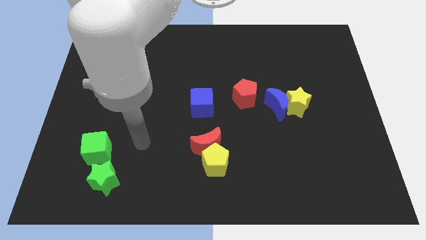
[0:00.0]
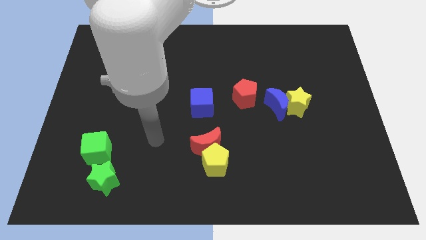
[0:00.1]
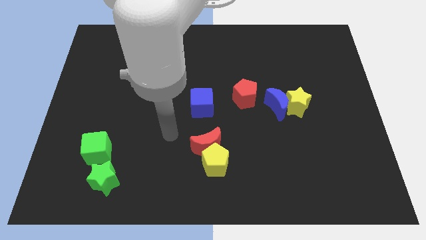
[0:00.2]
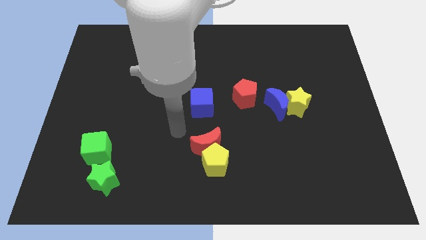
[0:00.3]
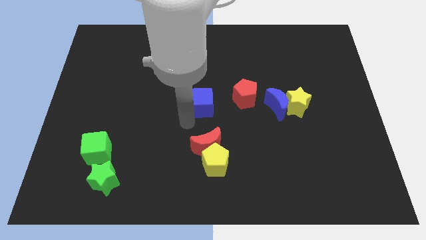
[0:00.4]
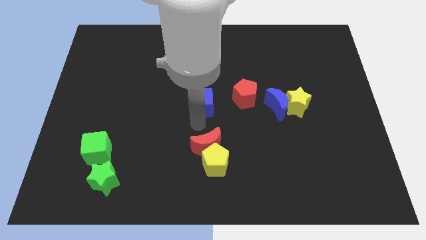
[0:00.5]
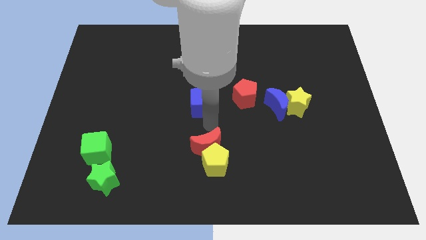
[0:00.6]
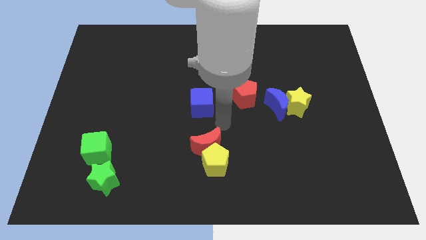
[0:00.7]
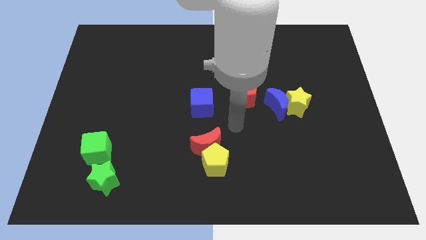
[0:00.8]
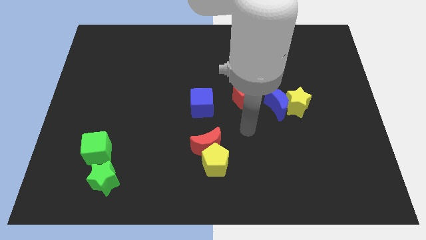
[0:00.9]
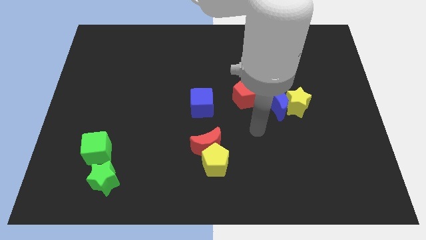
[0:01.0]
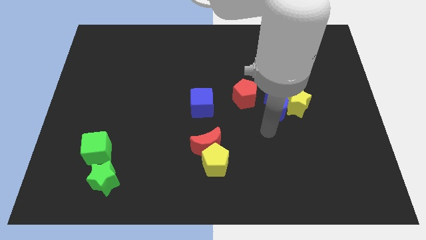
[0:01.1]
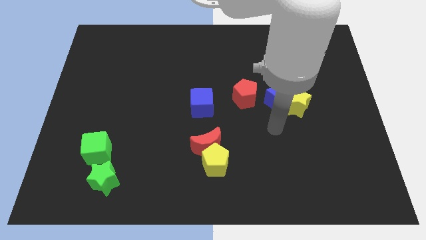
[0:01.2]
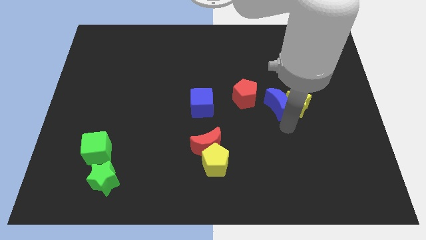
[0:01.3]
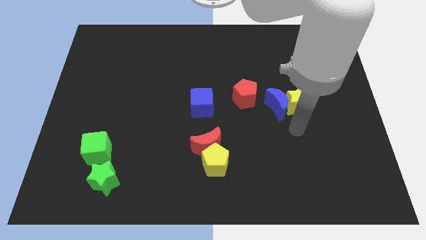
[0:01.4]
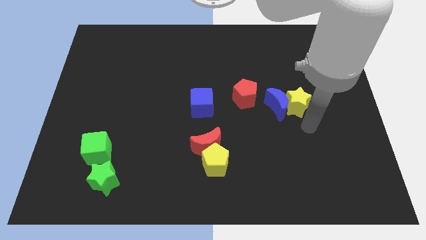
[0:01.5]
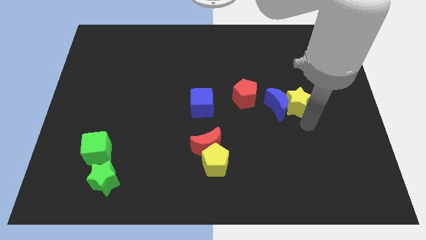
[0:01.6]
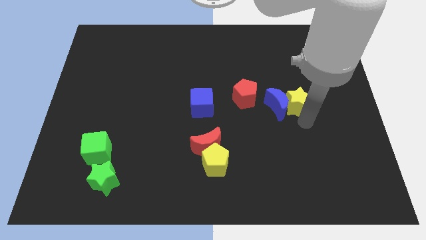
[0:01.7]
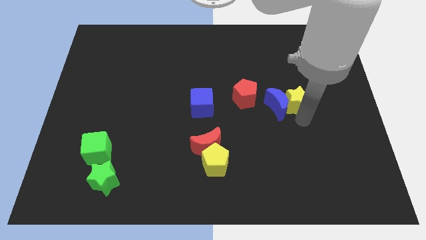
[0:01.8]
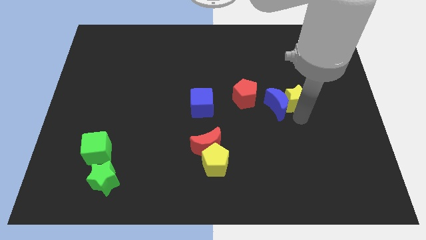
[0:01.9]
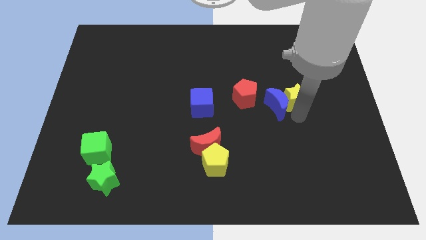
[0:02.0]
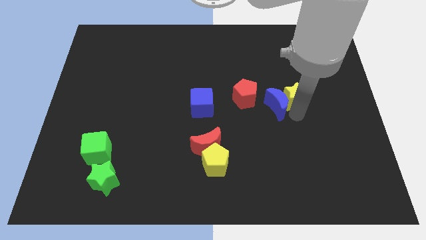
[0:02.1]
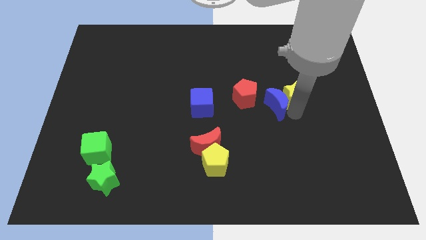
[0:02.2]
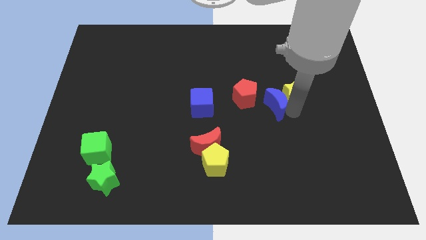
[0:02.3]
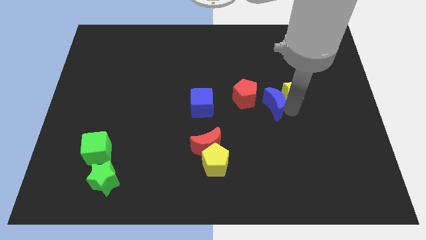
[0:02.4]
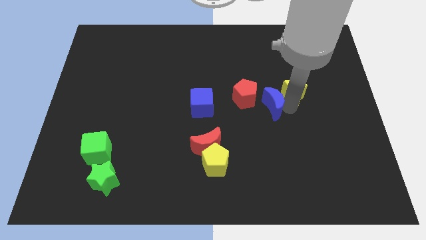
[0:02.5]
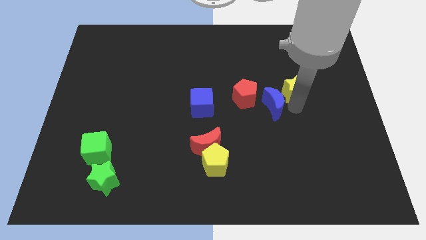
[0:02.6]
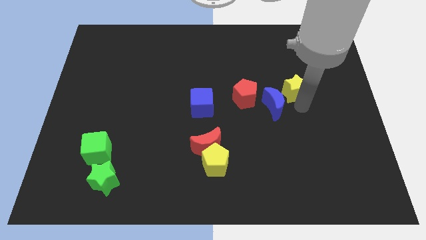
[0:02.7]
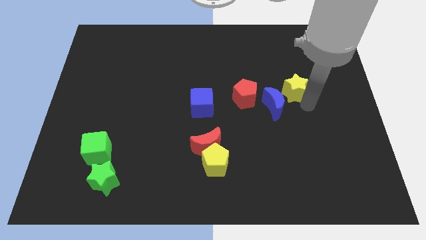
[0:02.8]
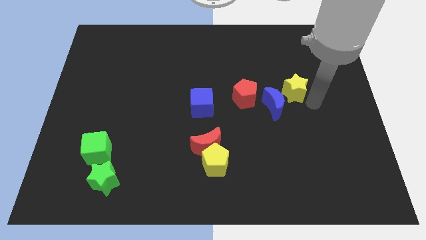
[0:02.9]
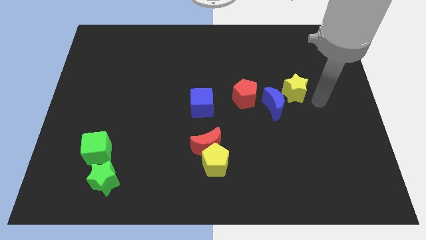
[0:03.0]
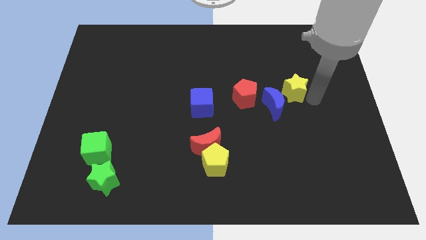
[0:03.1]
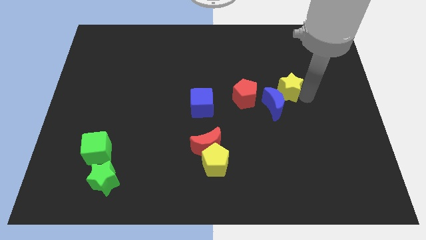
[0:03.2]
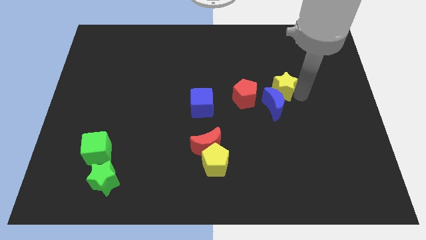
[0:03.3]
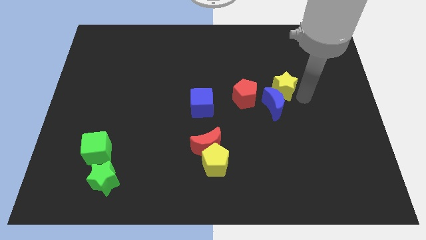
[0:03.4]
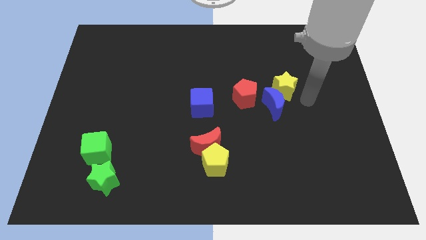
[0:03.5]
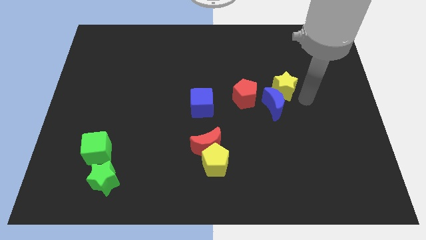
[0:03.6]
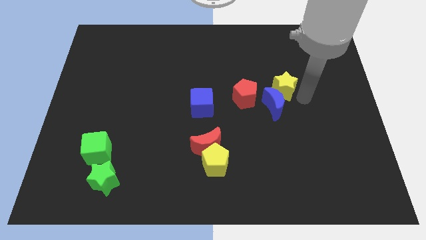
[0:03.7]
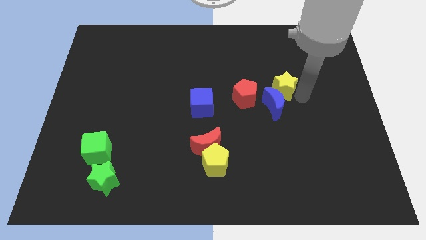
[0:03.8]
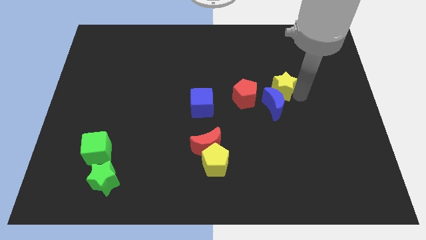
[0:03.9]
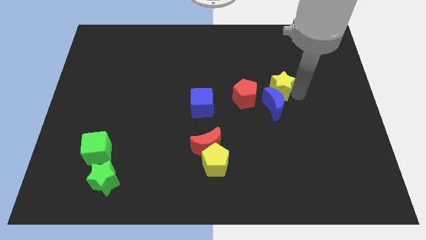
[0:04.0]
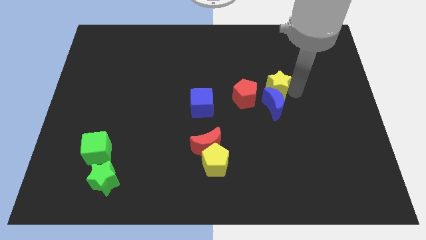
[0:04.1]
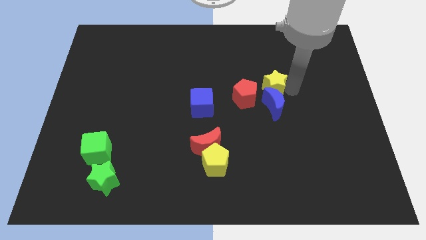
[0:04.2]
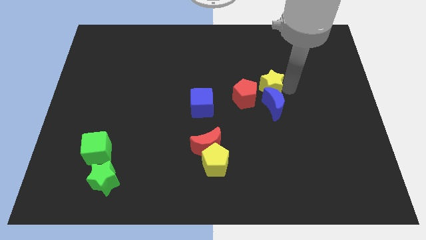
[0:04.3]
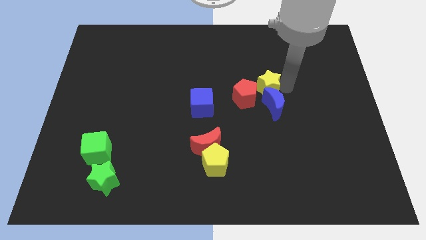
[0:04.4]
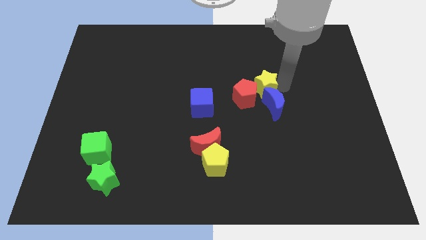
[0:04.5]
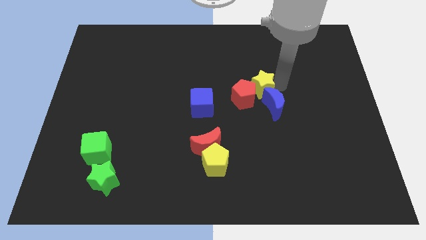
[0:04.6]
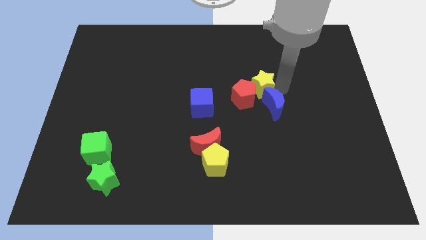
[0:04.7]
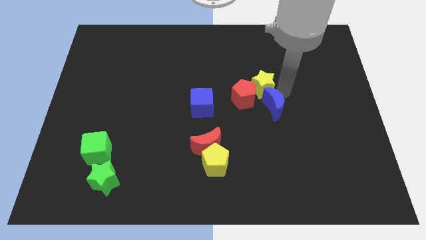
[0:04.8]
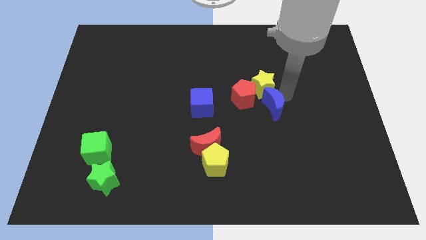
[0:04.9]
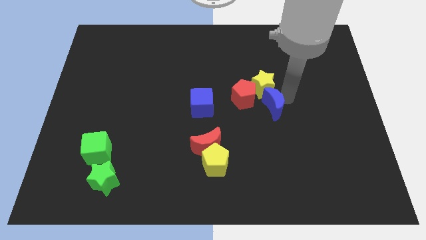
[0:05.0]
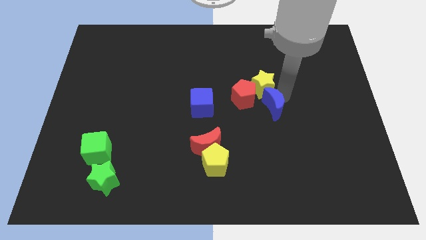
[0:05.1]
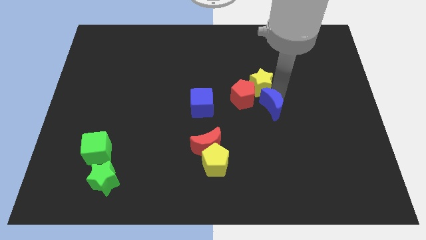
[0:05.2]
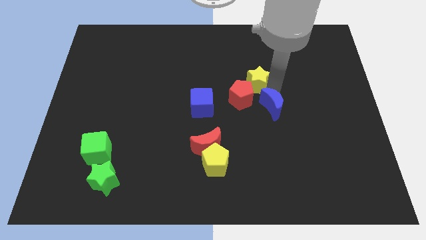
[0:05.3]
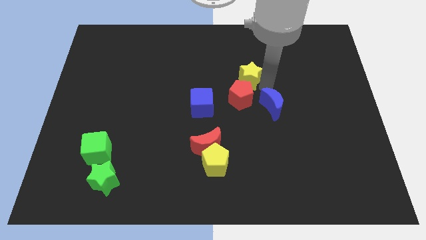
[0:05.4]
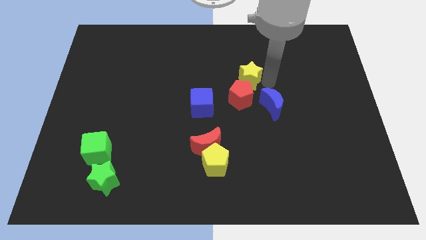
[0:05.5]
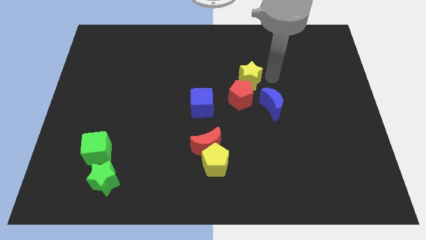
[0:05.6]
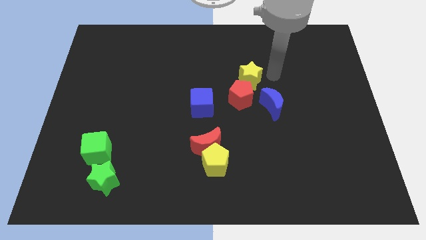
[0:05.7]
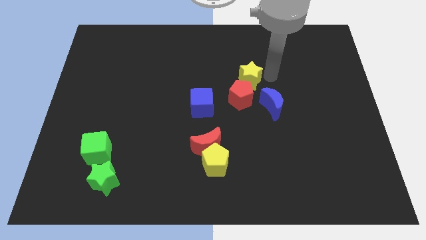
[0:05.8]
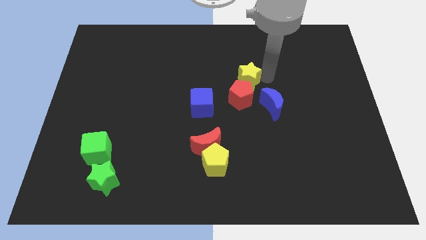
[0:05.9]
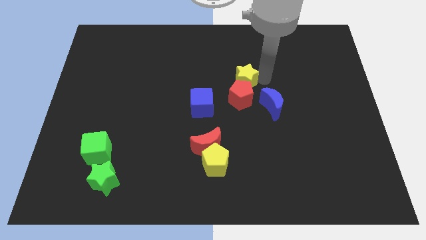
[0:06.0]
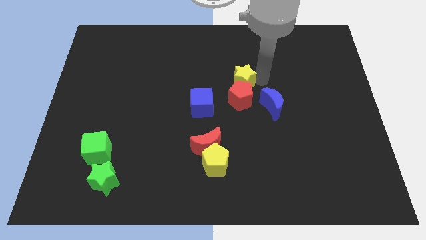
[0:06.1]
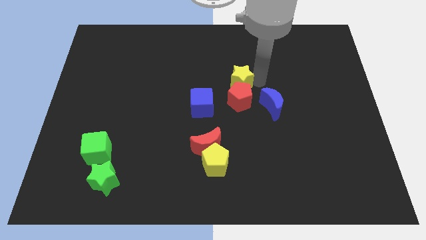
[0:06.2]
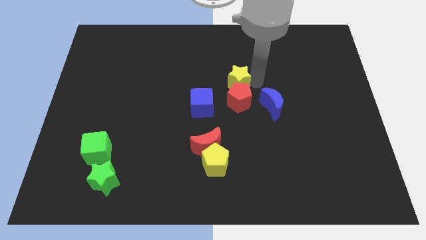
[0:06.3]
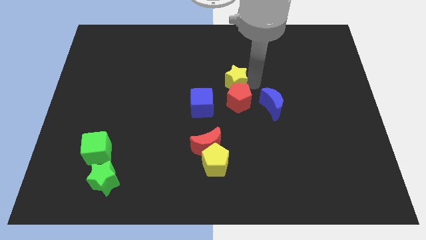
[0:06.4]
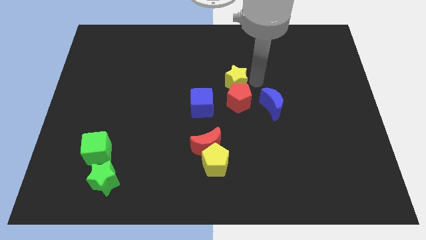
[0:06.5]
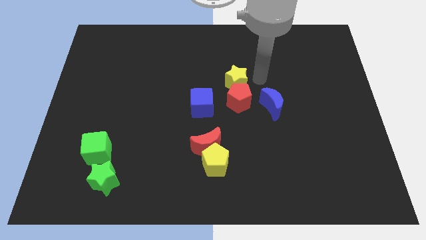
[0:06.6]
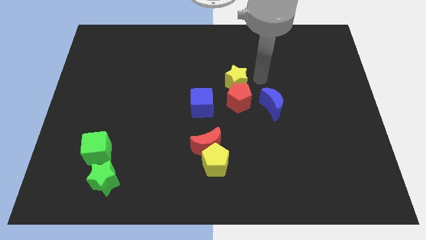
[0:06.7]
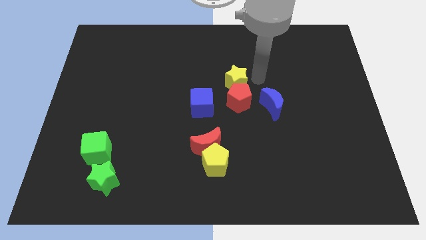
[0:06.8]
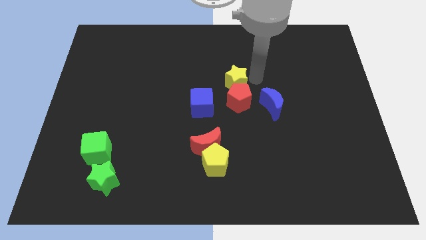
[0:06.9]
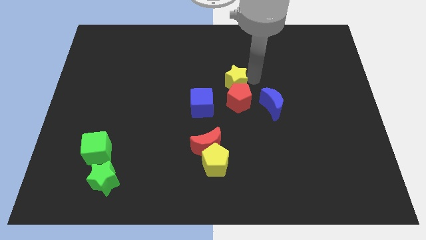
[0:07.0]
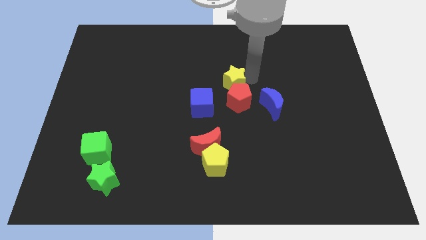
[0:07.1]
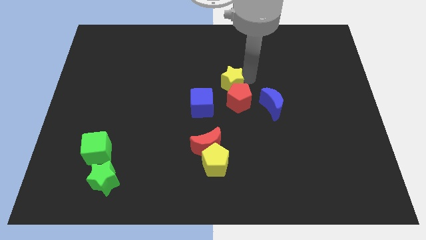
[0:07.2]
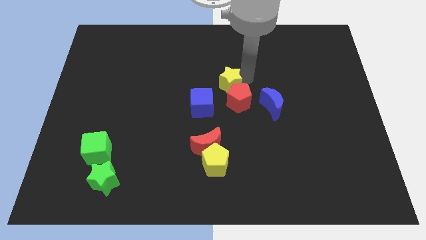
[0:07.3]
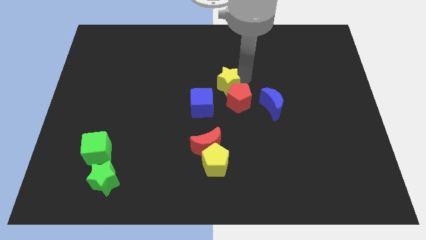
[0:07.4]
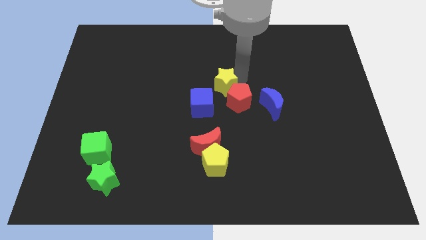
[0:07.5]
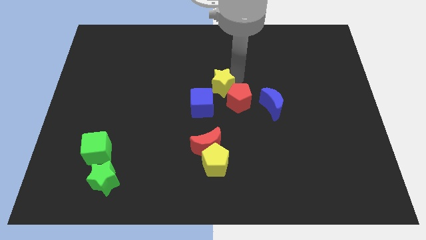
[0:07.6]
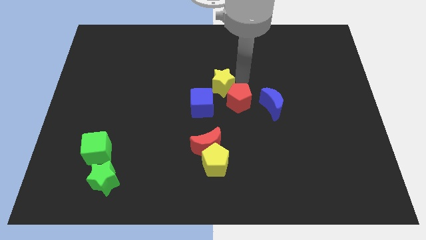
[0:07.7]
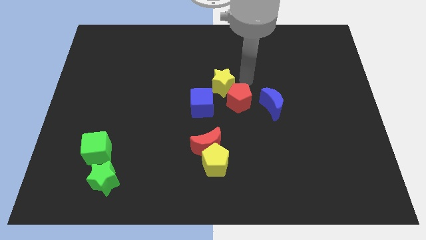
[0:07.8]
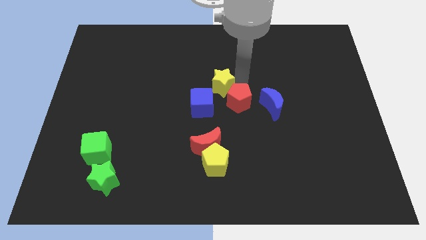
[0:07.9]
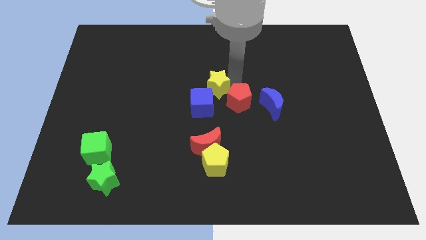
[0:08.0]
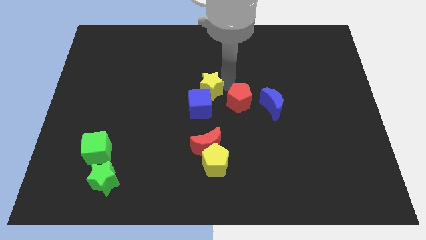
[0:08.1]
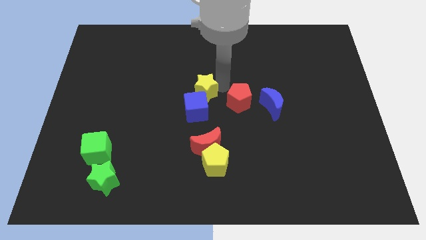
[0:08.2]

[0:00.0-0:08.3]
slide the yellow star left
